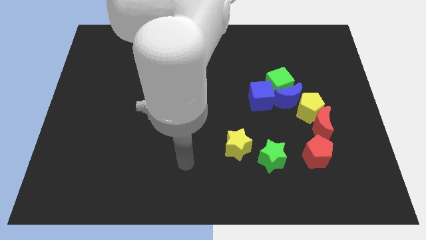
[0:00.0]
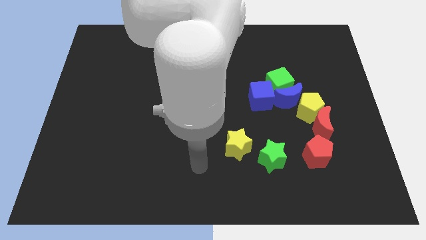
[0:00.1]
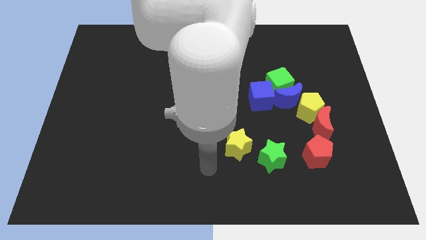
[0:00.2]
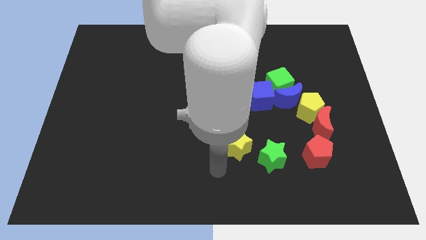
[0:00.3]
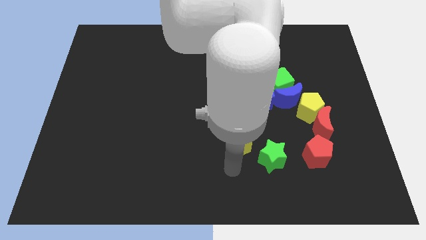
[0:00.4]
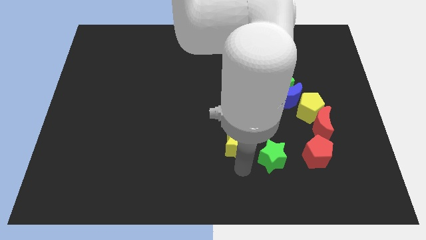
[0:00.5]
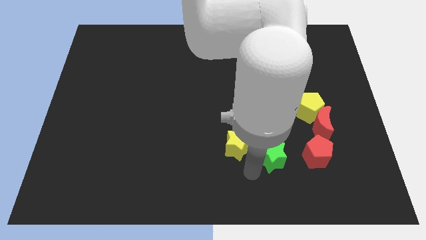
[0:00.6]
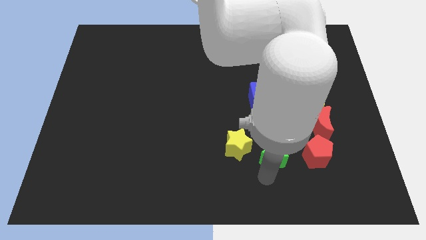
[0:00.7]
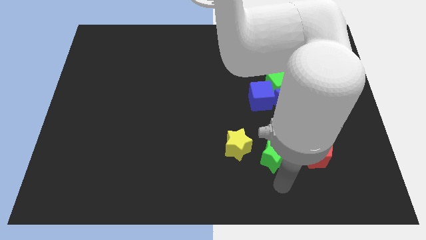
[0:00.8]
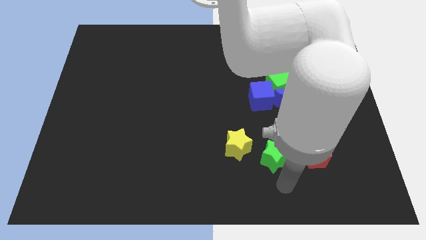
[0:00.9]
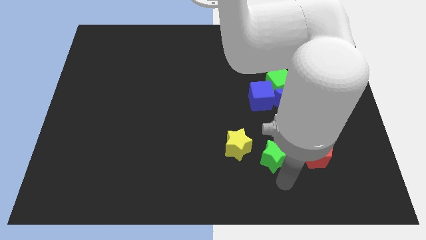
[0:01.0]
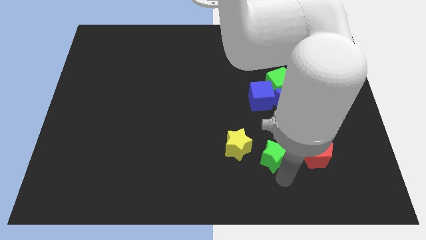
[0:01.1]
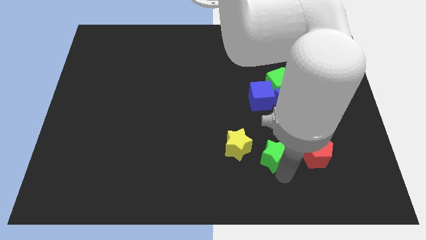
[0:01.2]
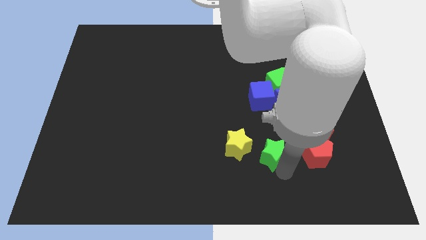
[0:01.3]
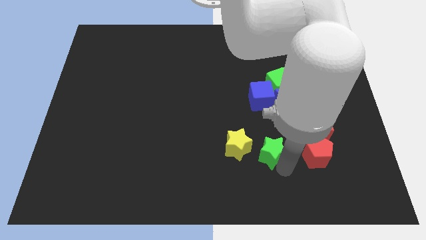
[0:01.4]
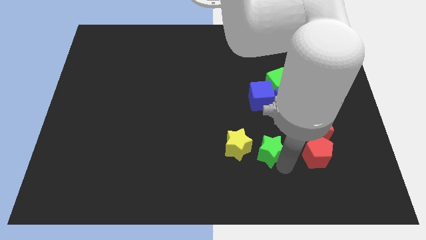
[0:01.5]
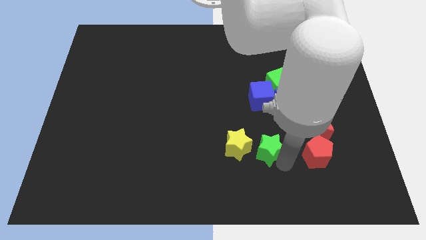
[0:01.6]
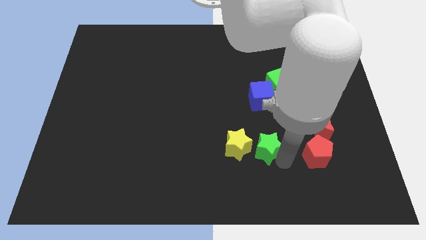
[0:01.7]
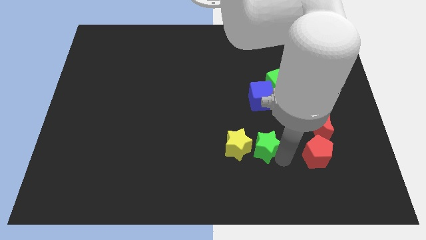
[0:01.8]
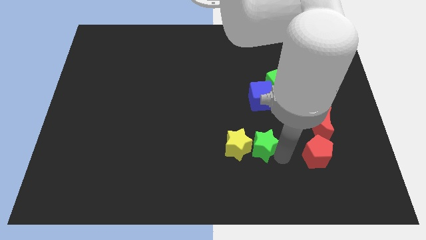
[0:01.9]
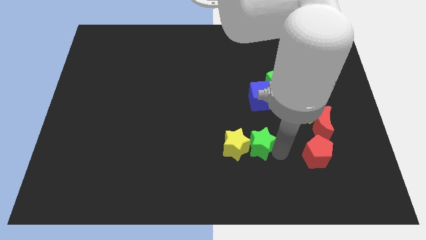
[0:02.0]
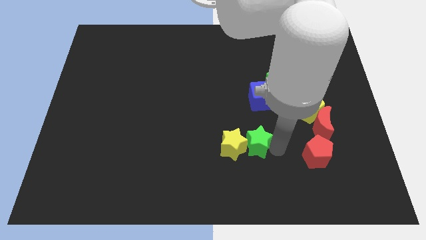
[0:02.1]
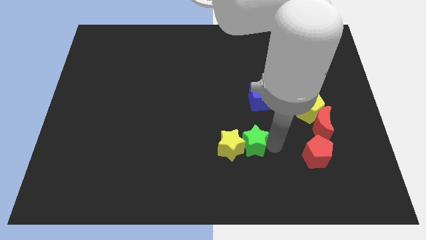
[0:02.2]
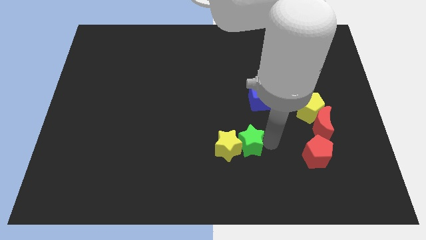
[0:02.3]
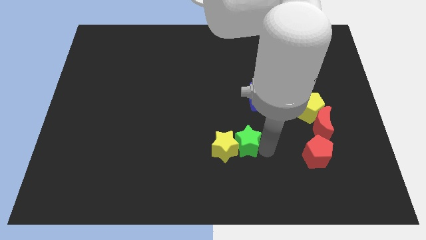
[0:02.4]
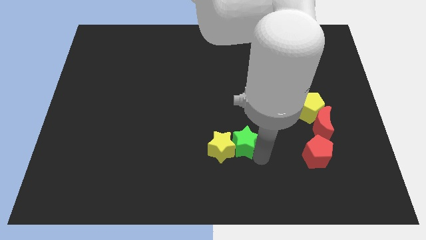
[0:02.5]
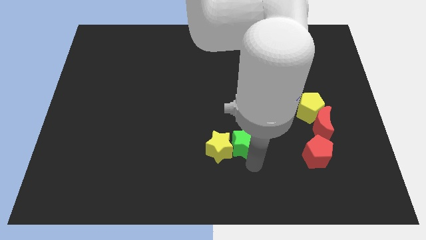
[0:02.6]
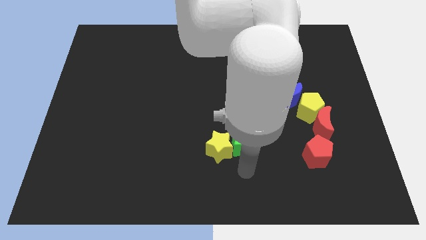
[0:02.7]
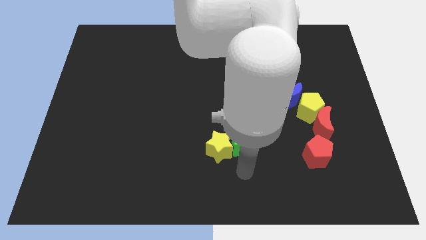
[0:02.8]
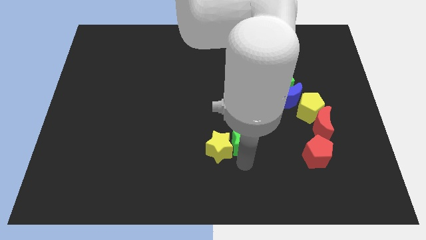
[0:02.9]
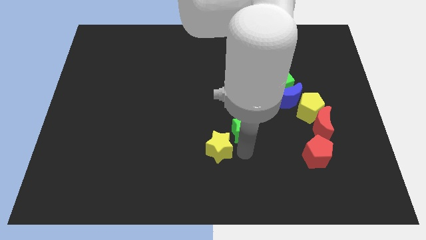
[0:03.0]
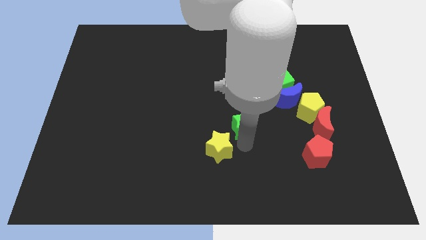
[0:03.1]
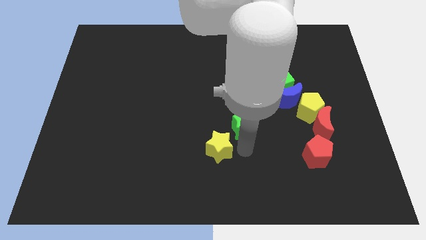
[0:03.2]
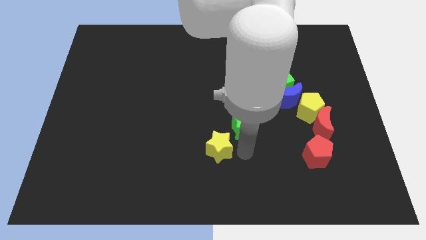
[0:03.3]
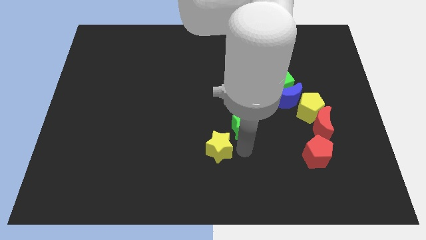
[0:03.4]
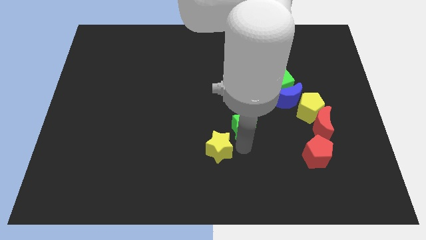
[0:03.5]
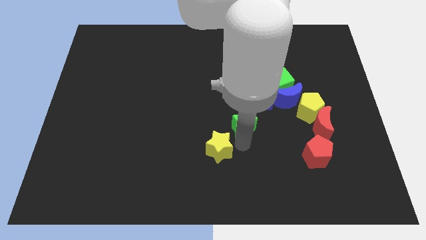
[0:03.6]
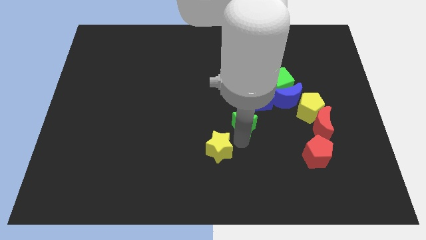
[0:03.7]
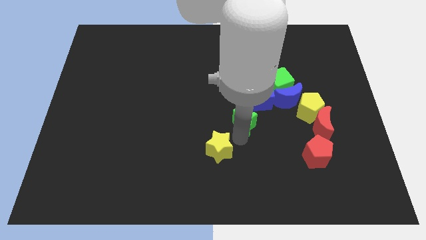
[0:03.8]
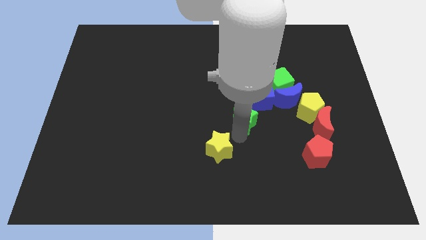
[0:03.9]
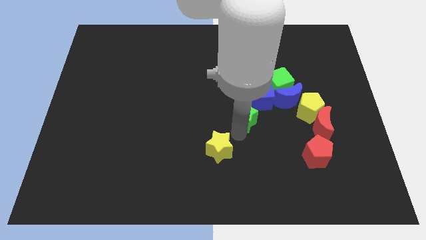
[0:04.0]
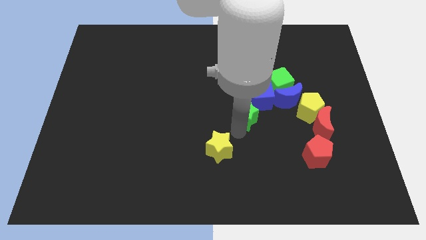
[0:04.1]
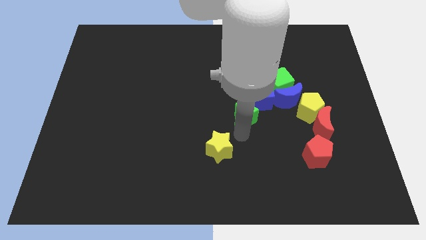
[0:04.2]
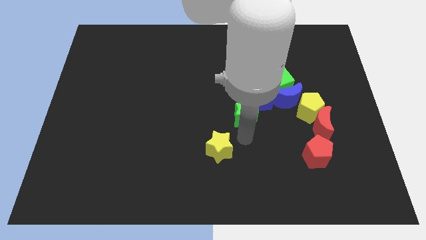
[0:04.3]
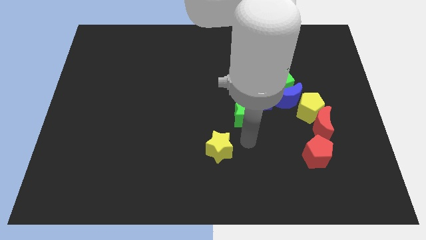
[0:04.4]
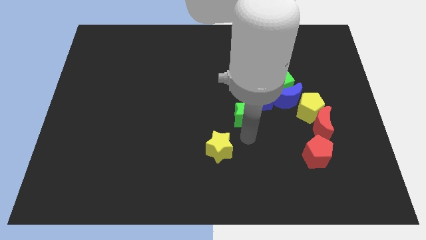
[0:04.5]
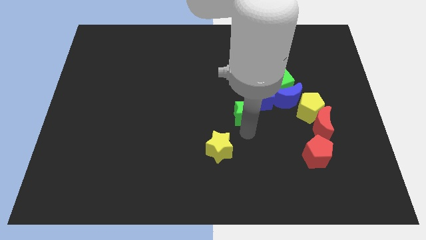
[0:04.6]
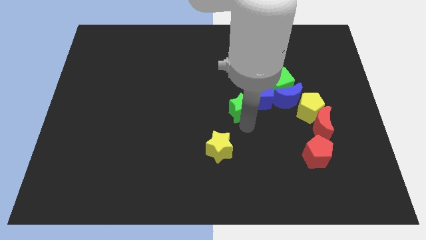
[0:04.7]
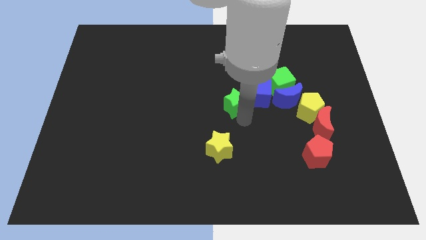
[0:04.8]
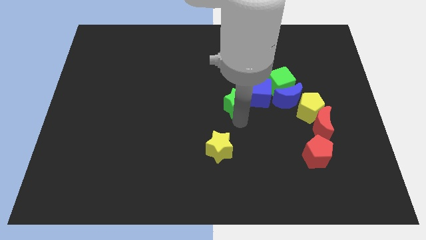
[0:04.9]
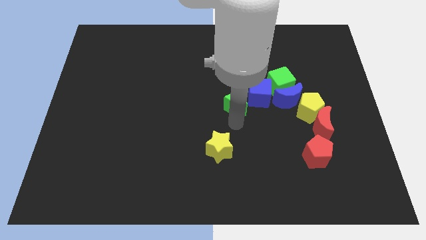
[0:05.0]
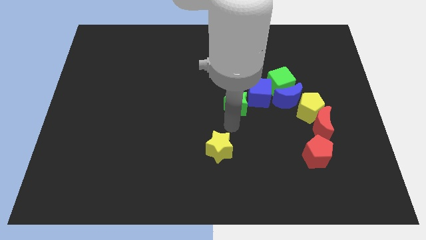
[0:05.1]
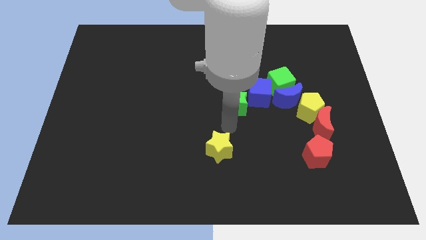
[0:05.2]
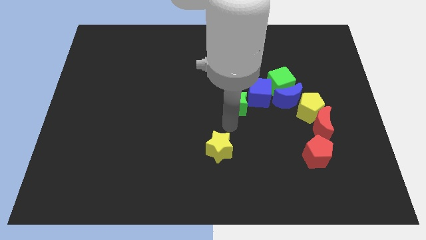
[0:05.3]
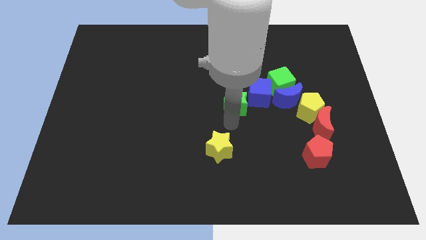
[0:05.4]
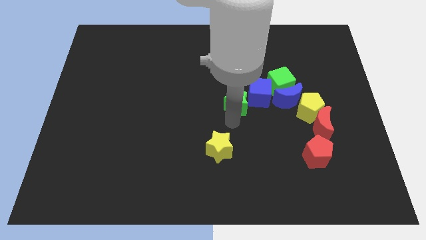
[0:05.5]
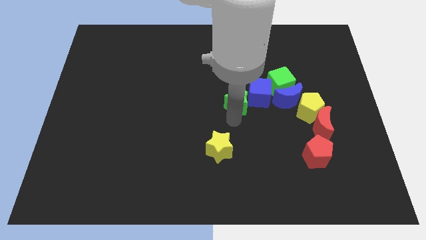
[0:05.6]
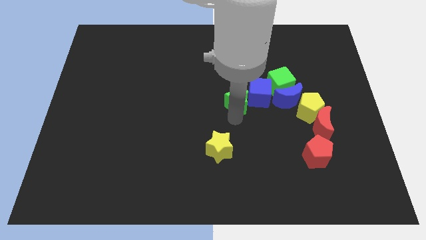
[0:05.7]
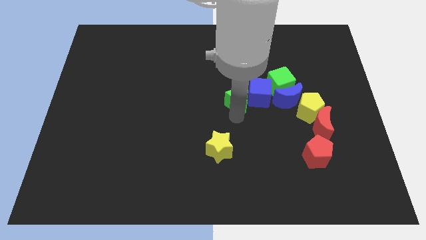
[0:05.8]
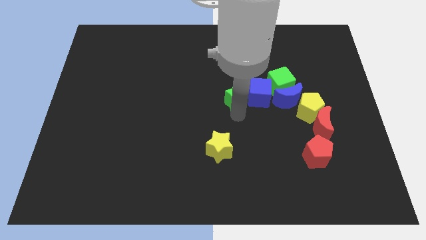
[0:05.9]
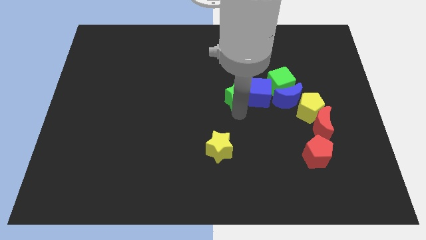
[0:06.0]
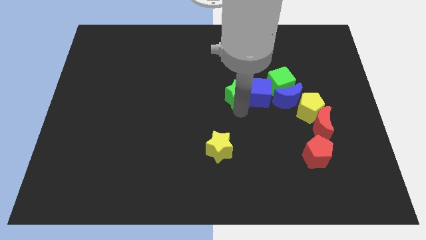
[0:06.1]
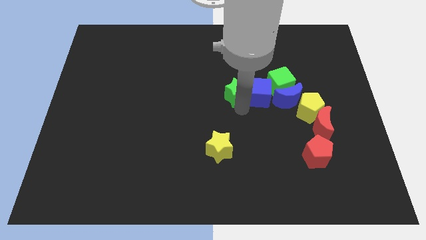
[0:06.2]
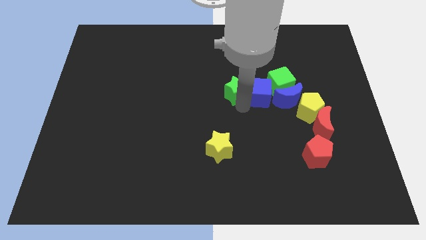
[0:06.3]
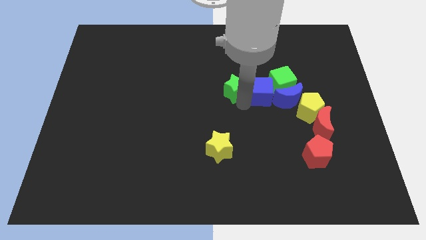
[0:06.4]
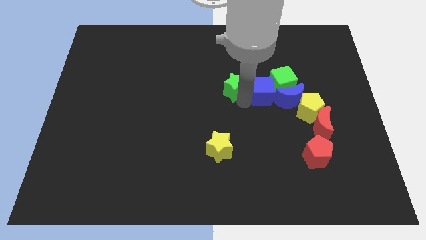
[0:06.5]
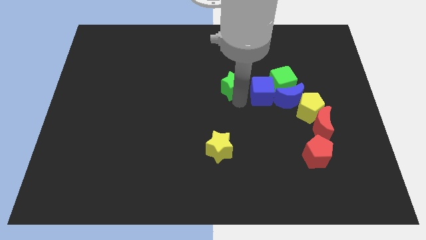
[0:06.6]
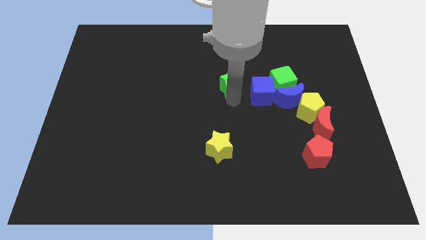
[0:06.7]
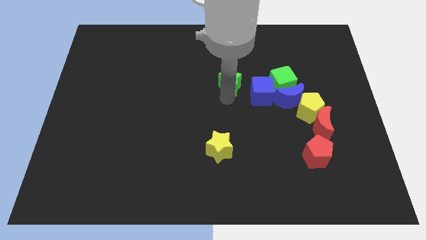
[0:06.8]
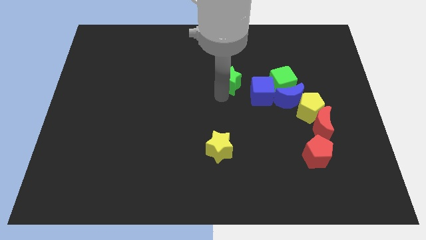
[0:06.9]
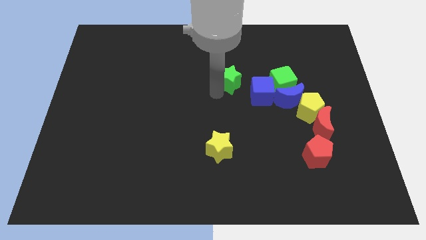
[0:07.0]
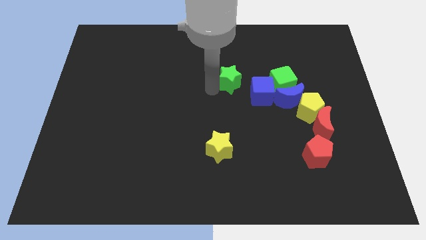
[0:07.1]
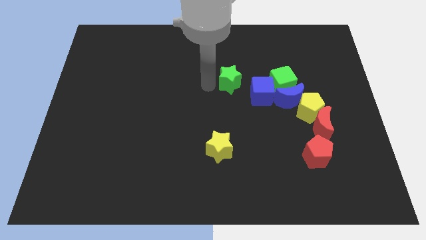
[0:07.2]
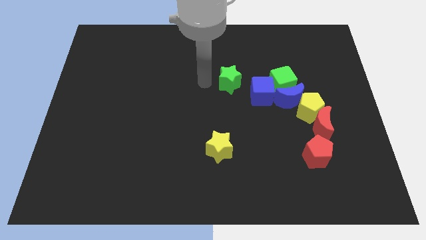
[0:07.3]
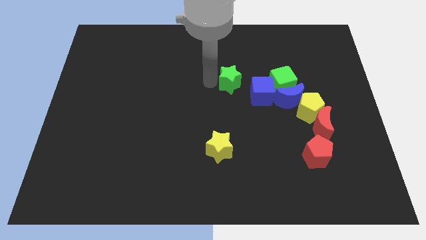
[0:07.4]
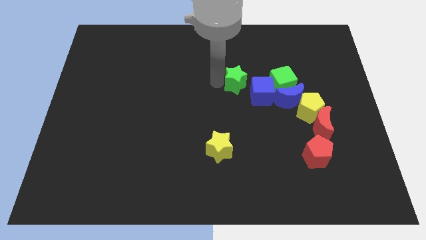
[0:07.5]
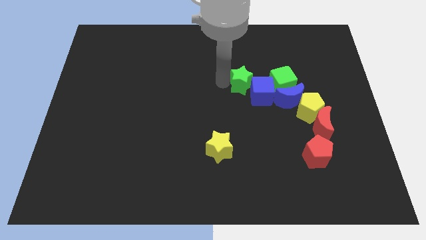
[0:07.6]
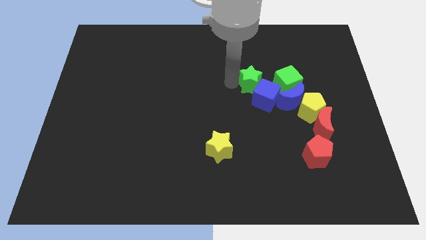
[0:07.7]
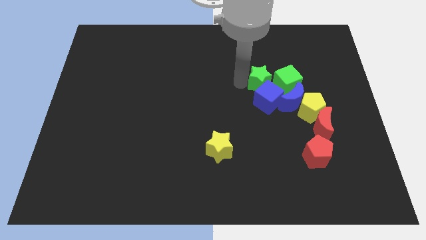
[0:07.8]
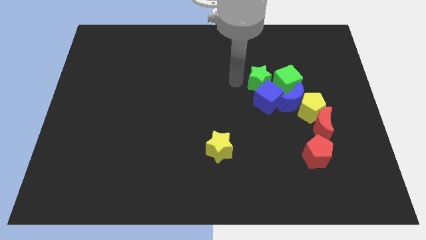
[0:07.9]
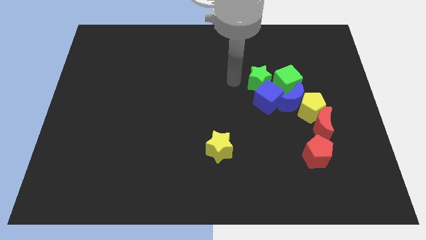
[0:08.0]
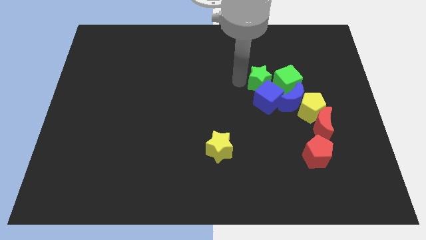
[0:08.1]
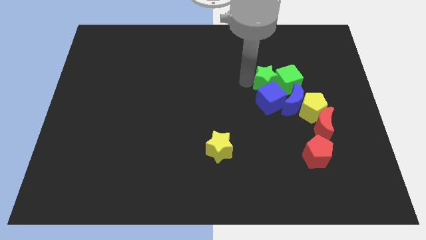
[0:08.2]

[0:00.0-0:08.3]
slide the green star towards the green cube

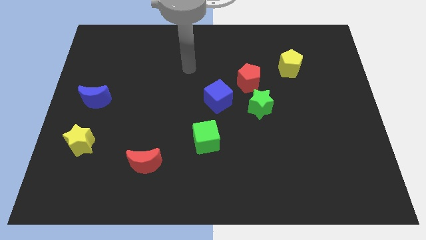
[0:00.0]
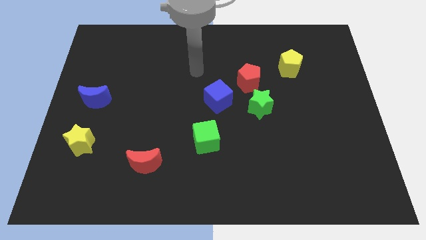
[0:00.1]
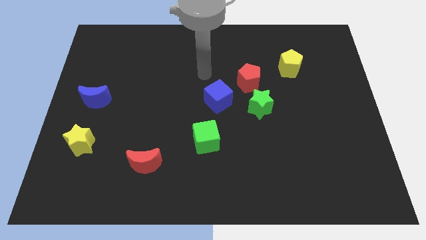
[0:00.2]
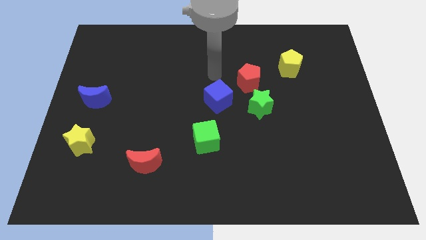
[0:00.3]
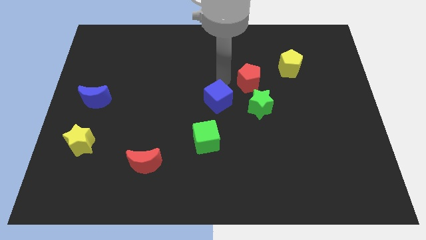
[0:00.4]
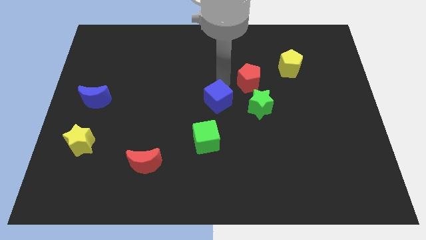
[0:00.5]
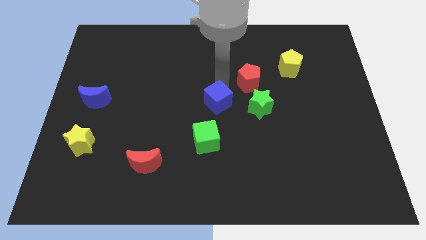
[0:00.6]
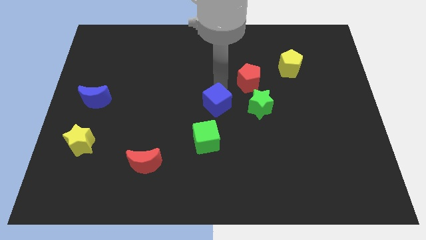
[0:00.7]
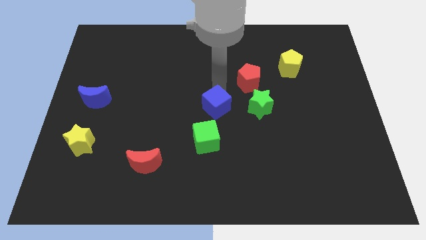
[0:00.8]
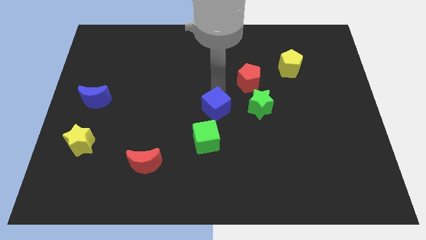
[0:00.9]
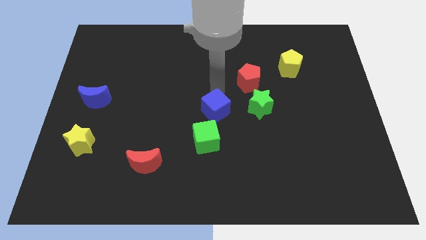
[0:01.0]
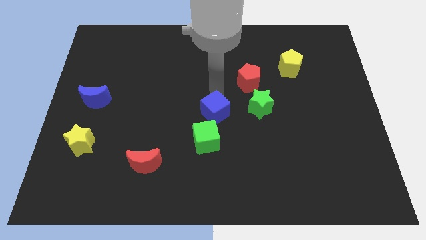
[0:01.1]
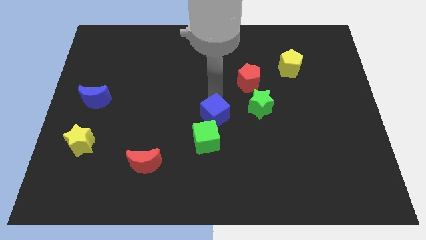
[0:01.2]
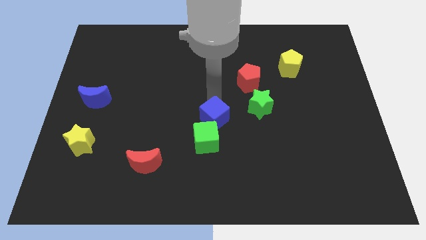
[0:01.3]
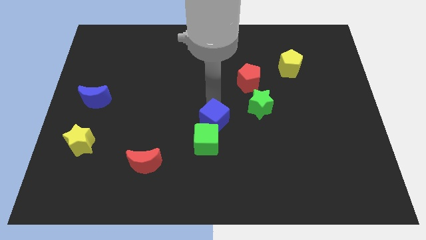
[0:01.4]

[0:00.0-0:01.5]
slide the blue cube to the green cube
